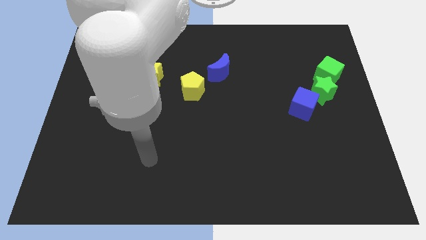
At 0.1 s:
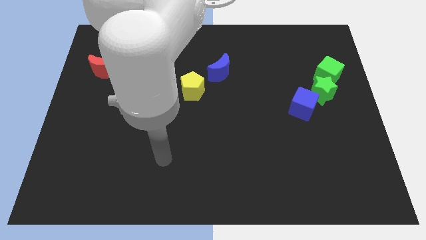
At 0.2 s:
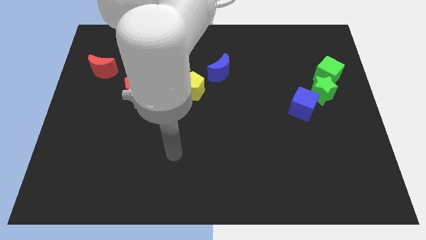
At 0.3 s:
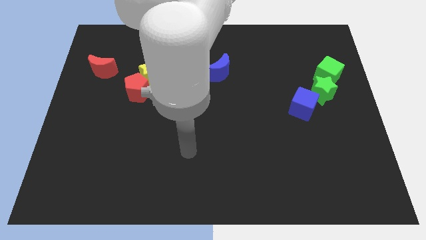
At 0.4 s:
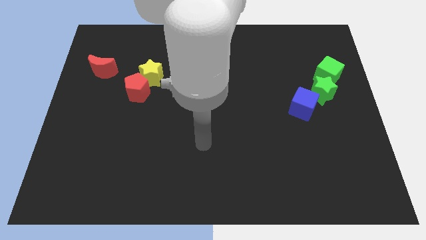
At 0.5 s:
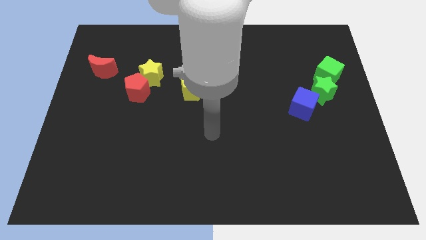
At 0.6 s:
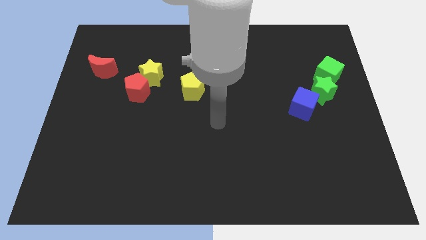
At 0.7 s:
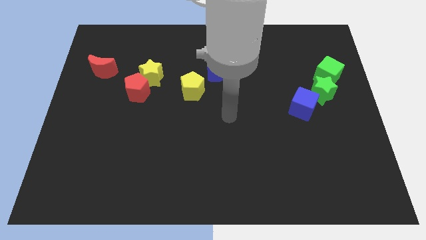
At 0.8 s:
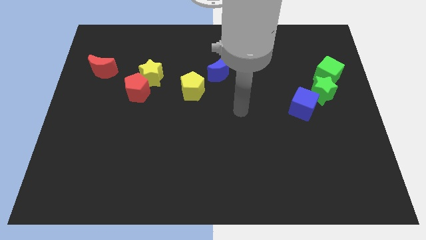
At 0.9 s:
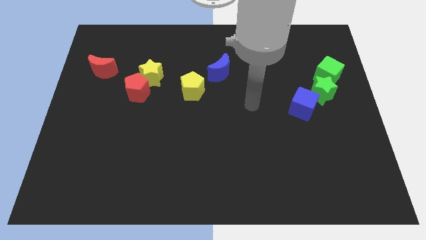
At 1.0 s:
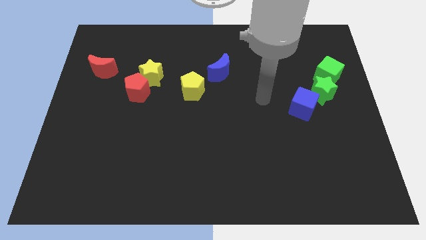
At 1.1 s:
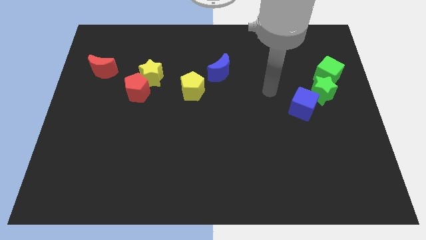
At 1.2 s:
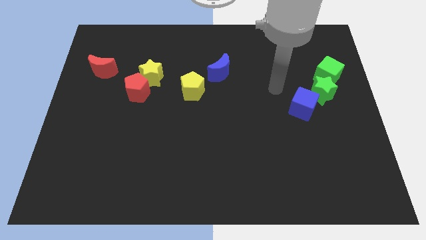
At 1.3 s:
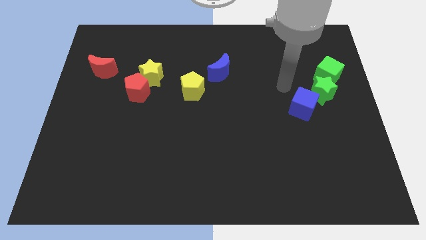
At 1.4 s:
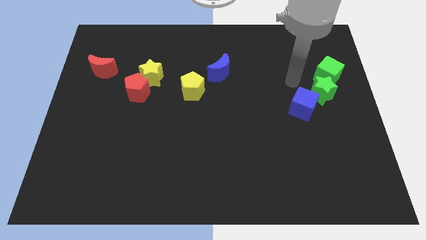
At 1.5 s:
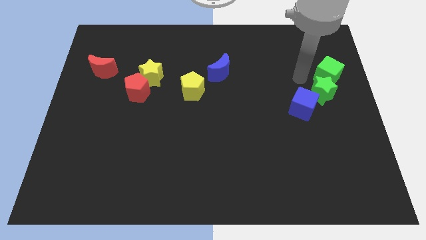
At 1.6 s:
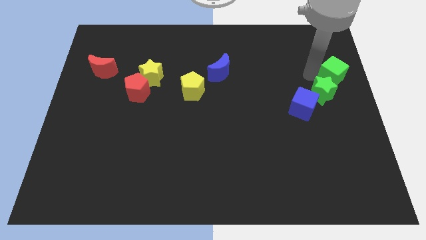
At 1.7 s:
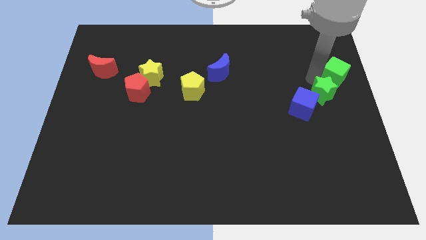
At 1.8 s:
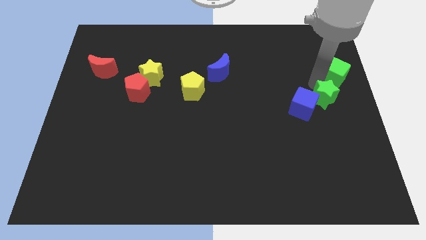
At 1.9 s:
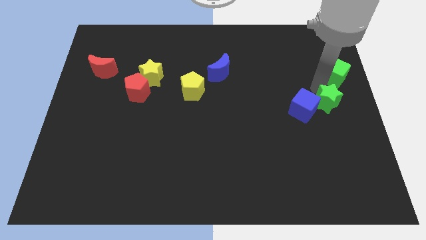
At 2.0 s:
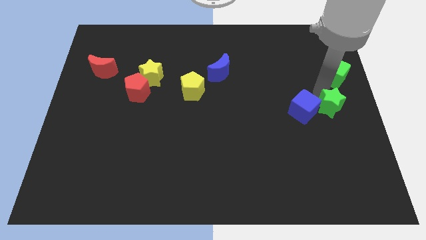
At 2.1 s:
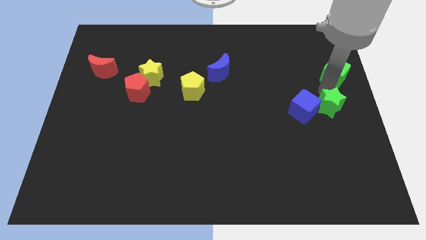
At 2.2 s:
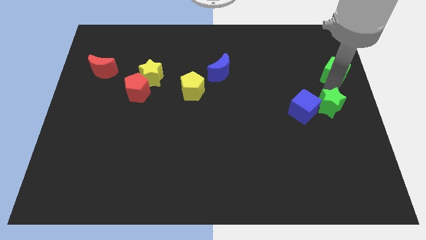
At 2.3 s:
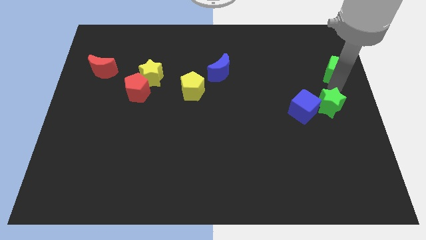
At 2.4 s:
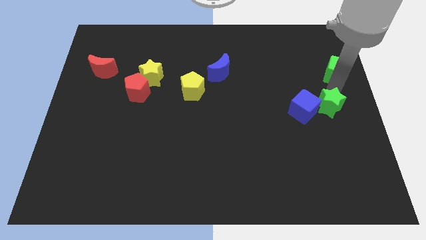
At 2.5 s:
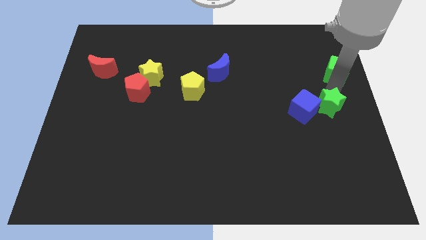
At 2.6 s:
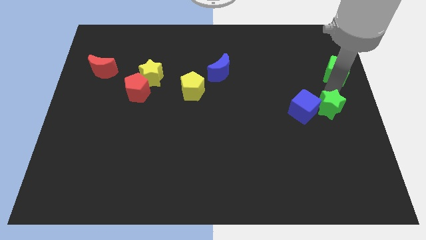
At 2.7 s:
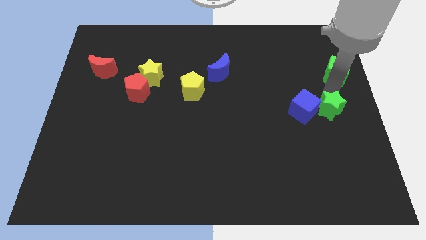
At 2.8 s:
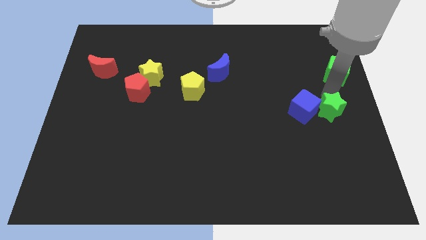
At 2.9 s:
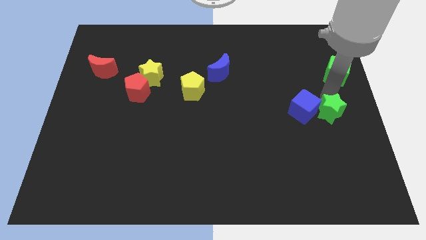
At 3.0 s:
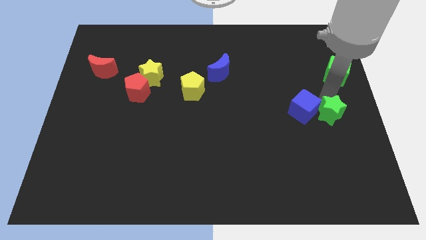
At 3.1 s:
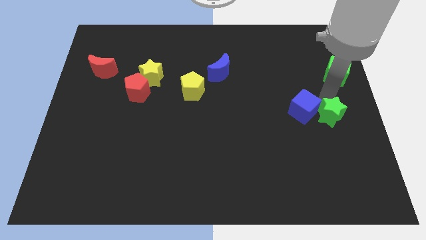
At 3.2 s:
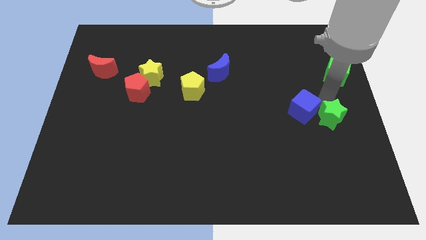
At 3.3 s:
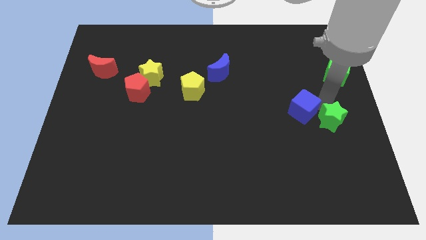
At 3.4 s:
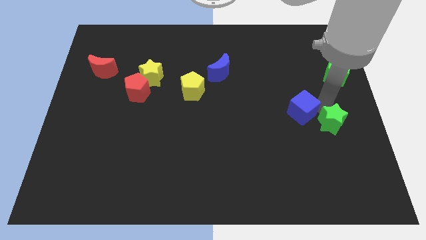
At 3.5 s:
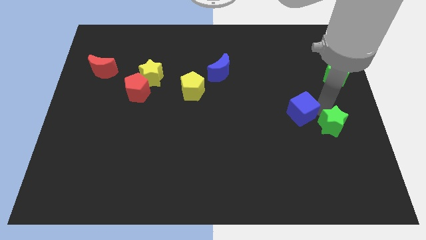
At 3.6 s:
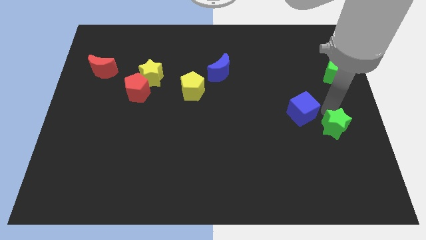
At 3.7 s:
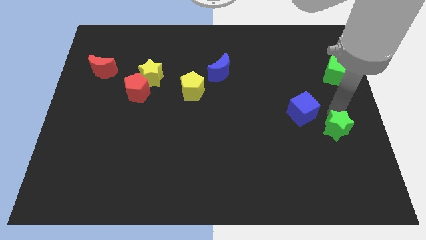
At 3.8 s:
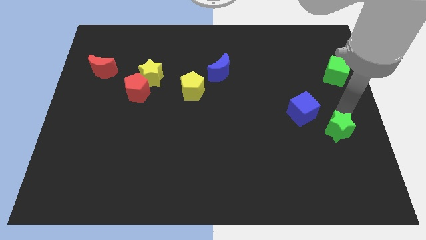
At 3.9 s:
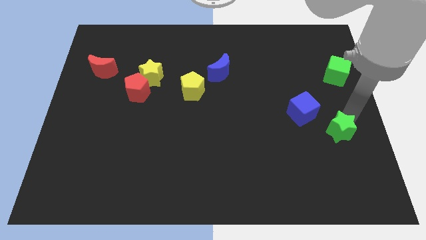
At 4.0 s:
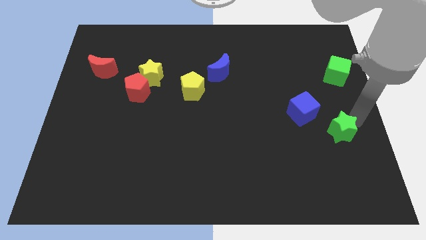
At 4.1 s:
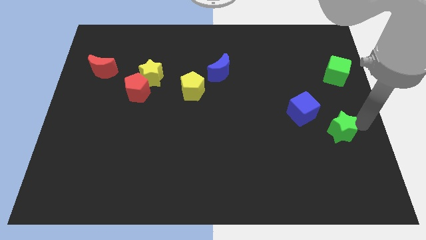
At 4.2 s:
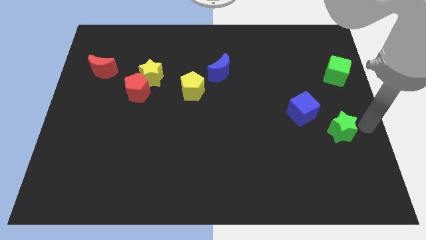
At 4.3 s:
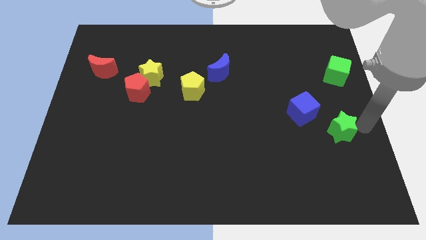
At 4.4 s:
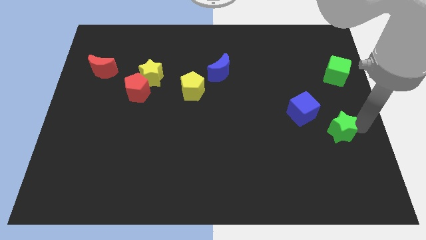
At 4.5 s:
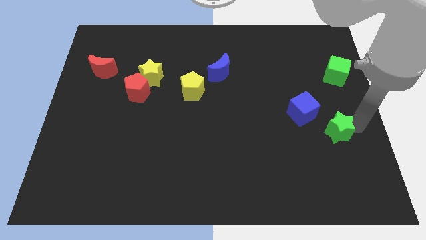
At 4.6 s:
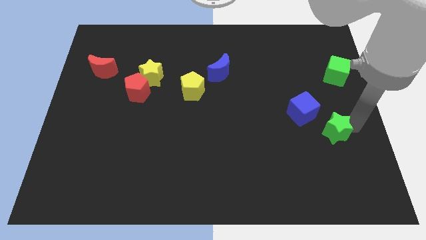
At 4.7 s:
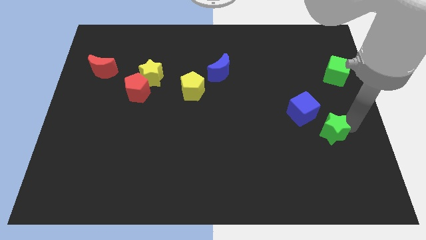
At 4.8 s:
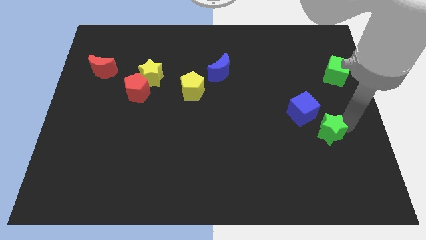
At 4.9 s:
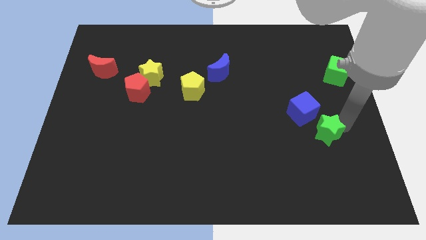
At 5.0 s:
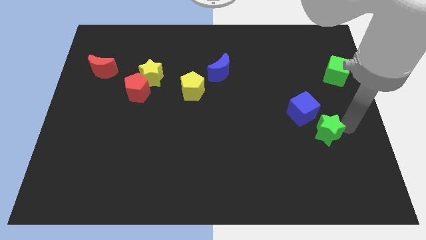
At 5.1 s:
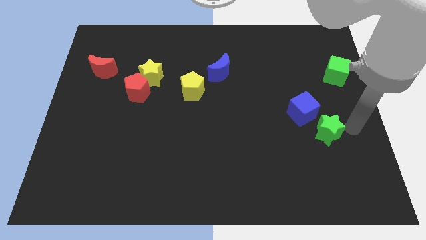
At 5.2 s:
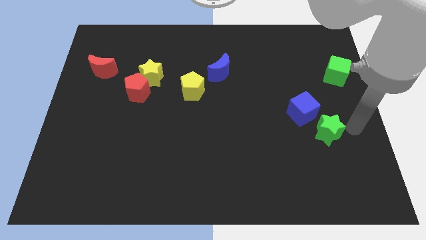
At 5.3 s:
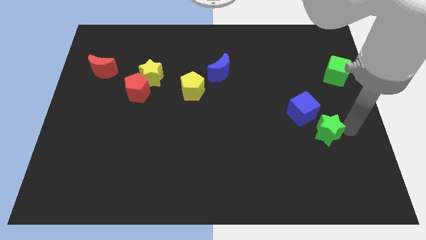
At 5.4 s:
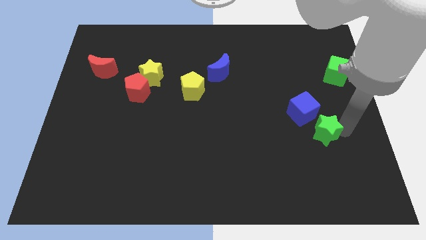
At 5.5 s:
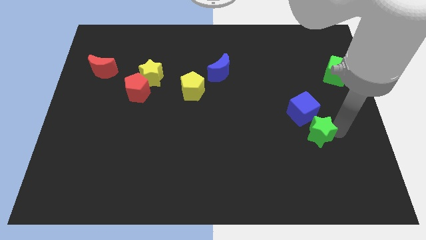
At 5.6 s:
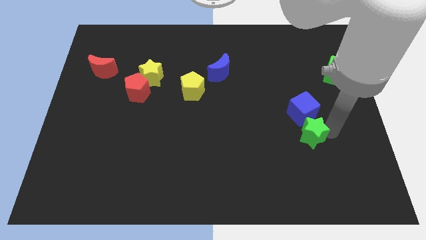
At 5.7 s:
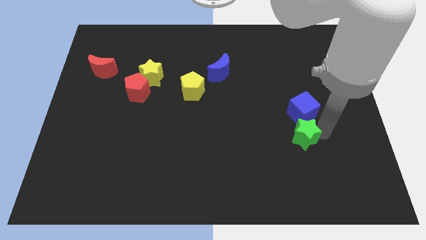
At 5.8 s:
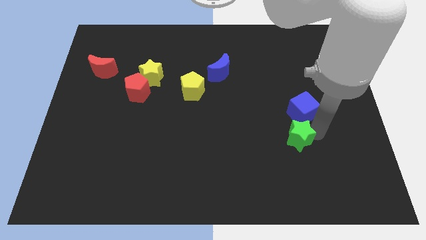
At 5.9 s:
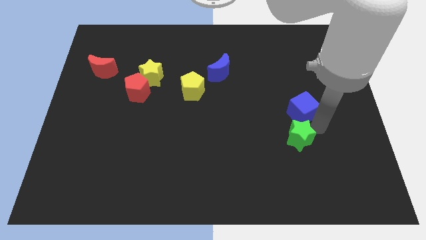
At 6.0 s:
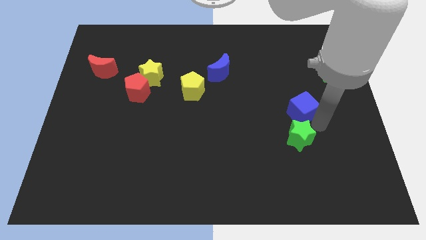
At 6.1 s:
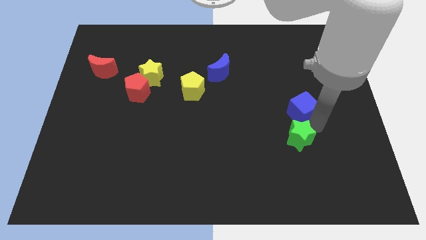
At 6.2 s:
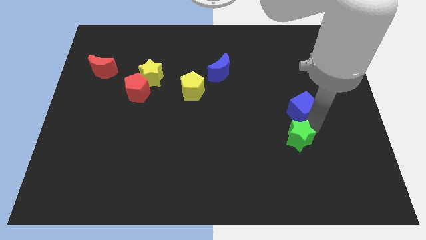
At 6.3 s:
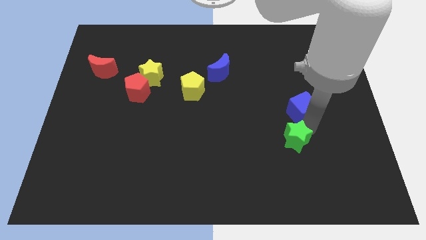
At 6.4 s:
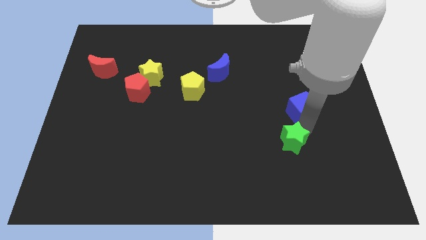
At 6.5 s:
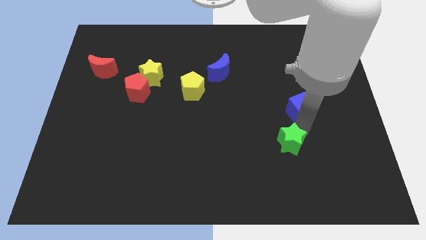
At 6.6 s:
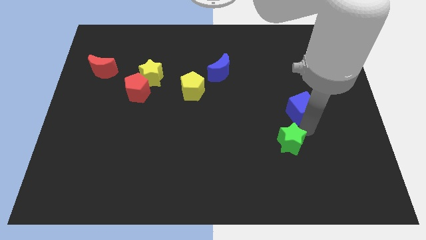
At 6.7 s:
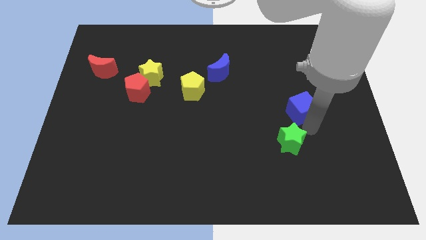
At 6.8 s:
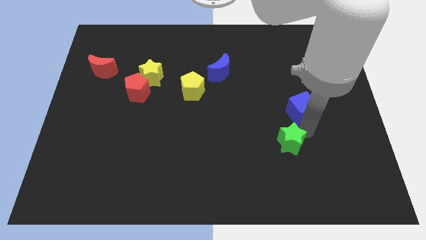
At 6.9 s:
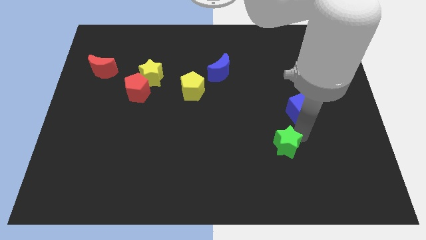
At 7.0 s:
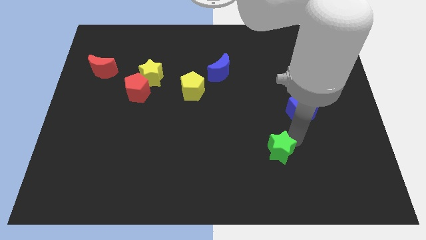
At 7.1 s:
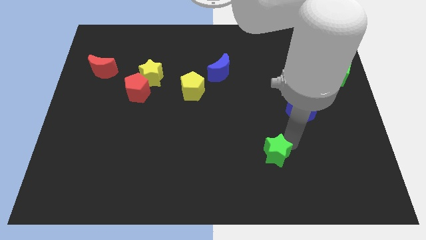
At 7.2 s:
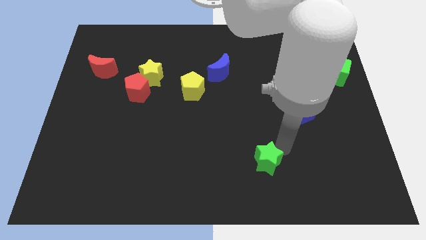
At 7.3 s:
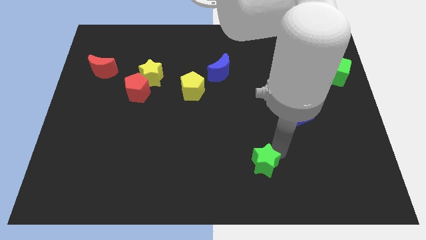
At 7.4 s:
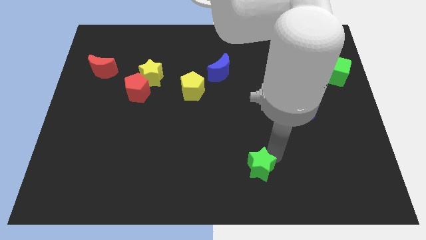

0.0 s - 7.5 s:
push the green star to the bottom
